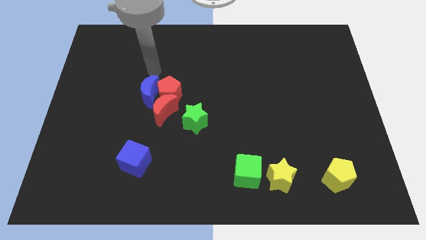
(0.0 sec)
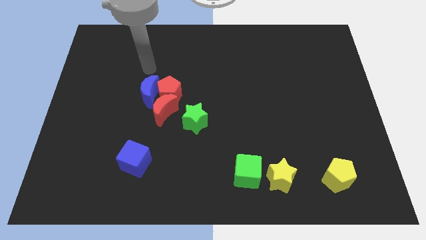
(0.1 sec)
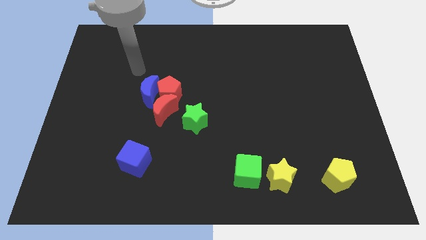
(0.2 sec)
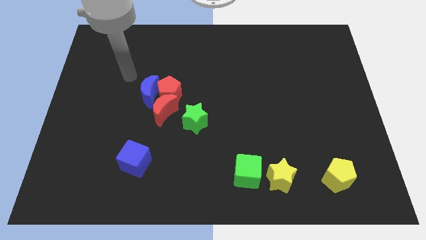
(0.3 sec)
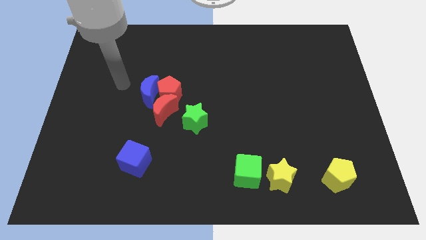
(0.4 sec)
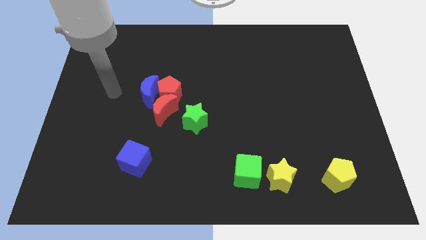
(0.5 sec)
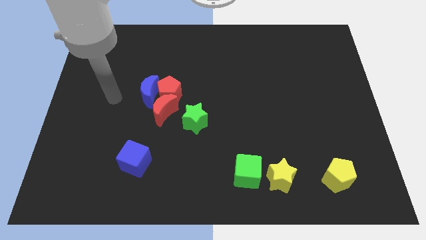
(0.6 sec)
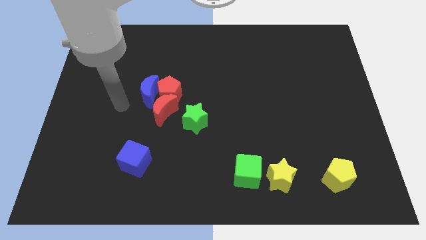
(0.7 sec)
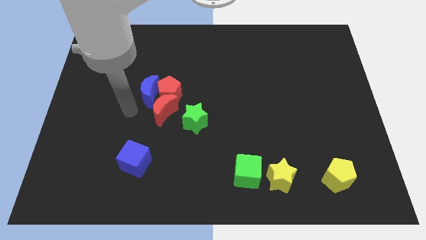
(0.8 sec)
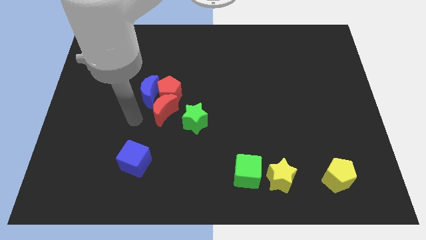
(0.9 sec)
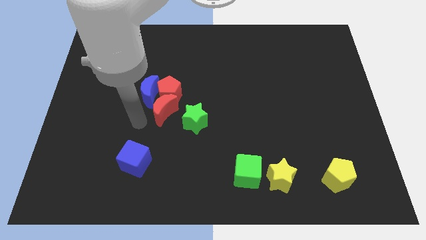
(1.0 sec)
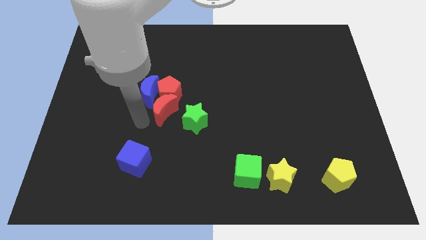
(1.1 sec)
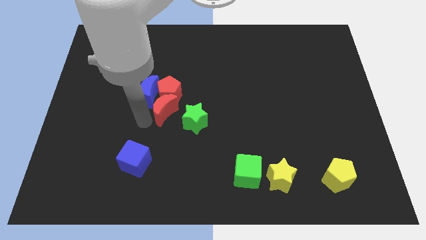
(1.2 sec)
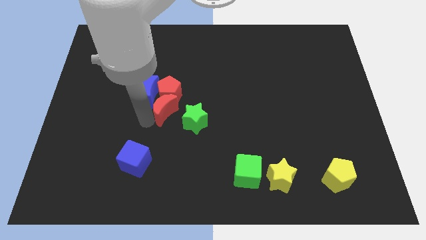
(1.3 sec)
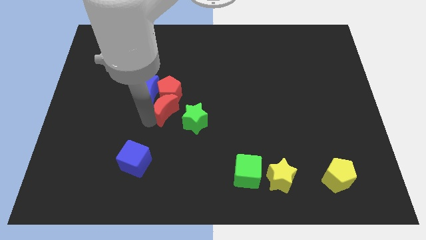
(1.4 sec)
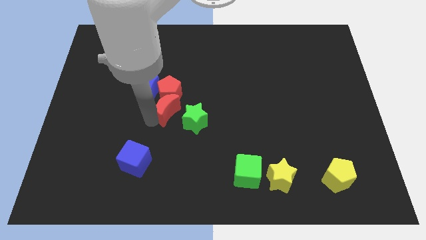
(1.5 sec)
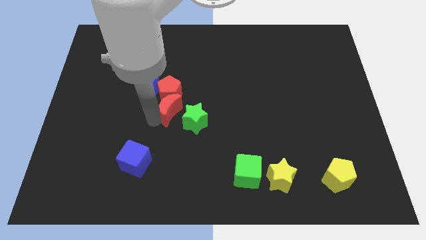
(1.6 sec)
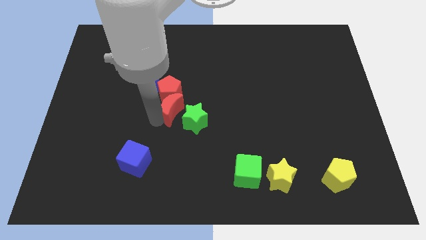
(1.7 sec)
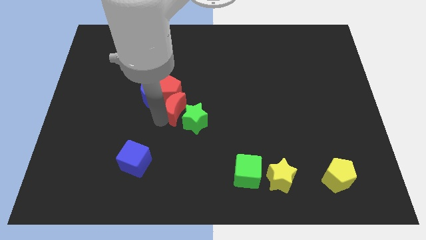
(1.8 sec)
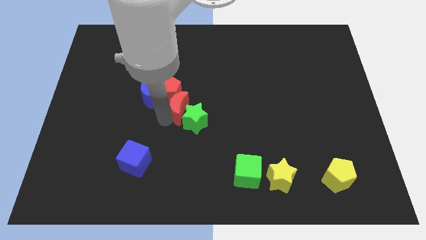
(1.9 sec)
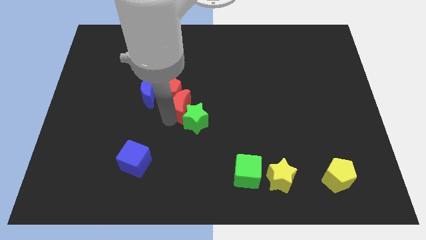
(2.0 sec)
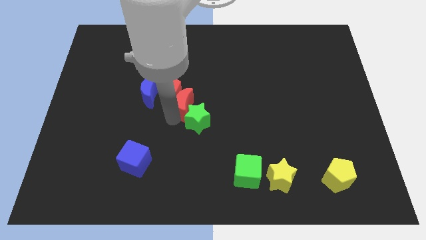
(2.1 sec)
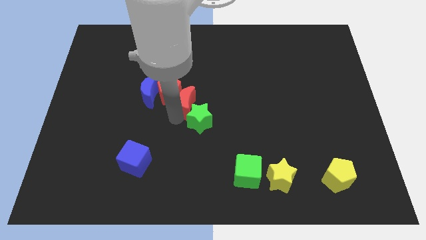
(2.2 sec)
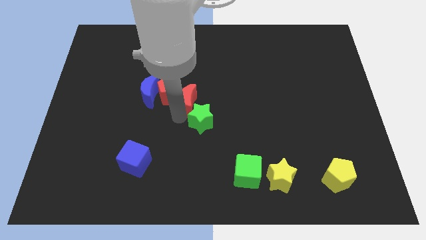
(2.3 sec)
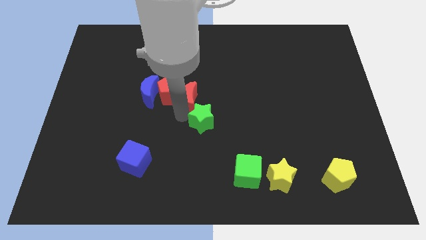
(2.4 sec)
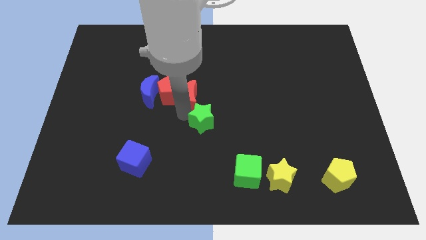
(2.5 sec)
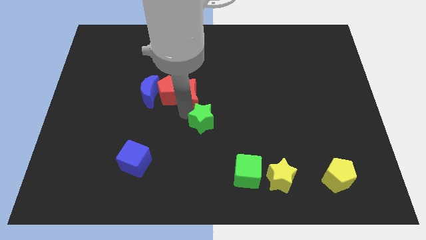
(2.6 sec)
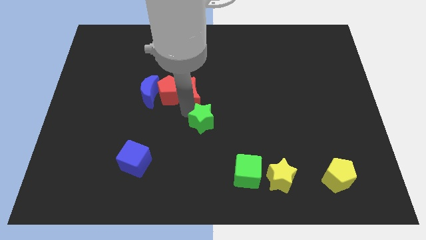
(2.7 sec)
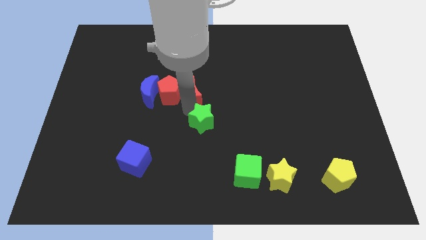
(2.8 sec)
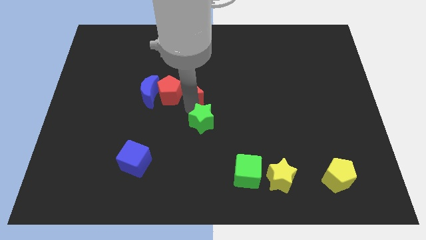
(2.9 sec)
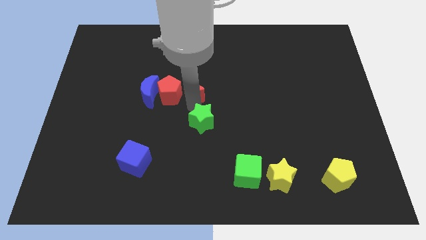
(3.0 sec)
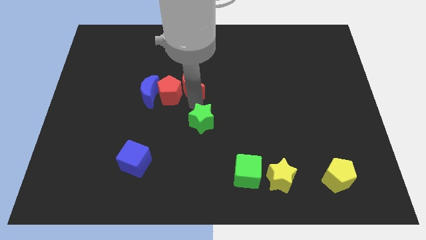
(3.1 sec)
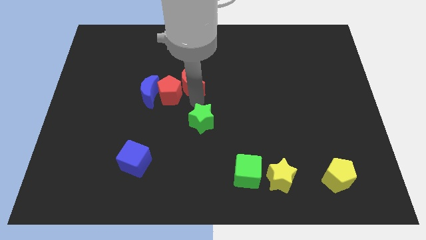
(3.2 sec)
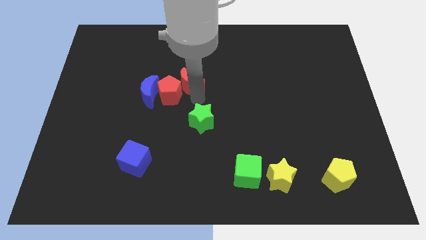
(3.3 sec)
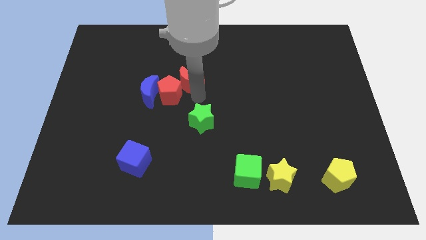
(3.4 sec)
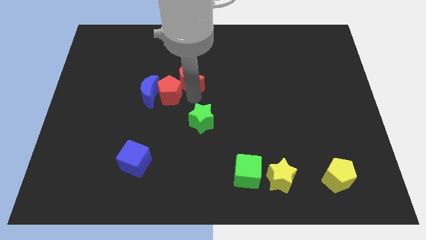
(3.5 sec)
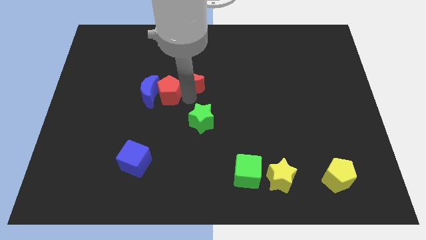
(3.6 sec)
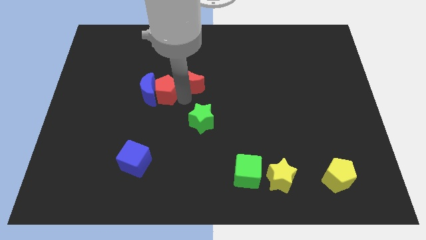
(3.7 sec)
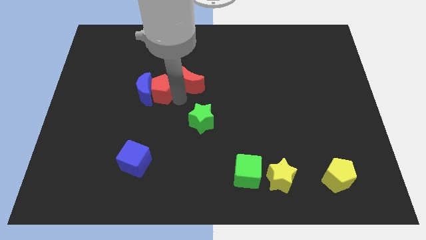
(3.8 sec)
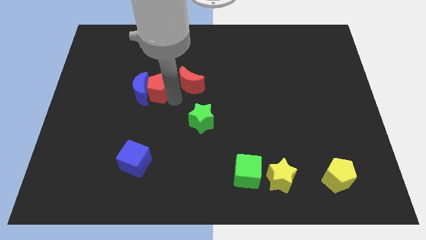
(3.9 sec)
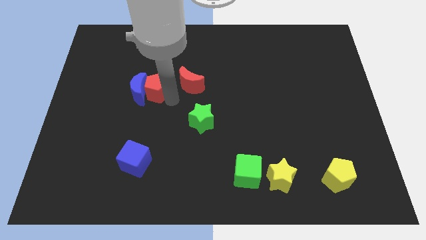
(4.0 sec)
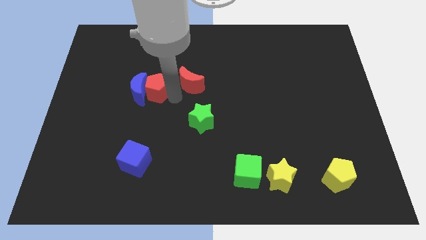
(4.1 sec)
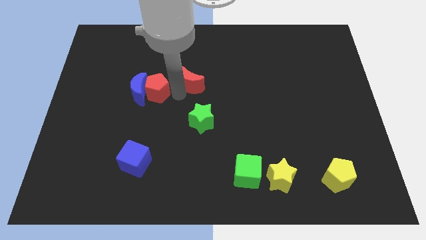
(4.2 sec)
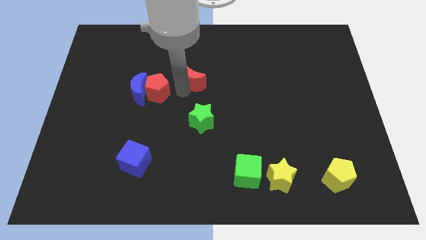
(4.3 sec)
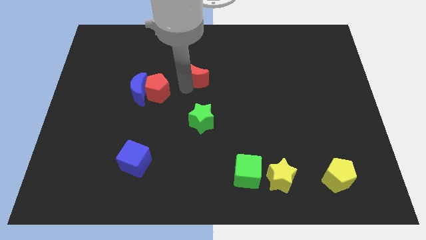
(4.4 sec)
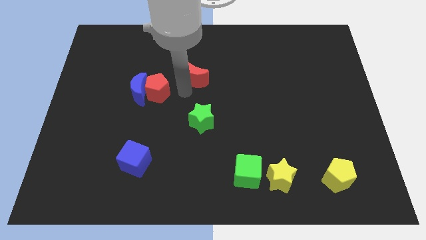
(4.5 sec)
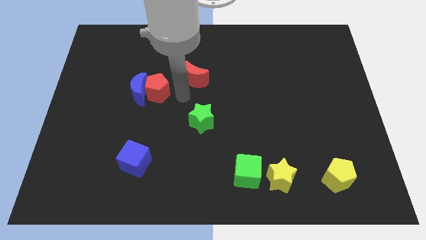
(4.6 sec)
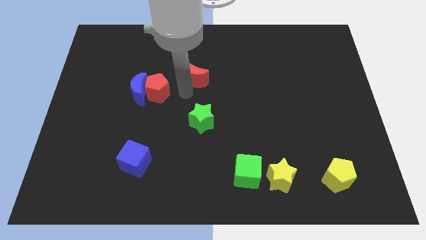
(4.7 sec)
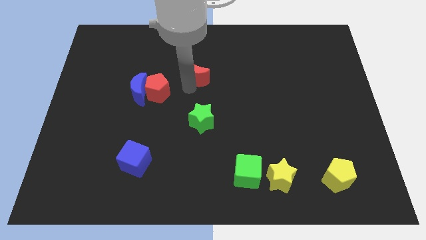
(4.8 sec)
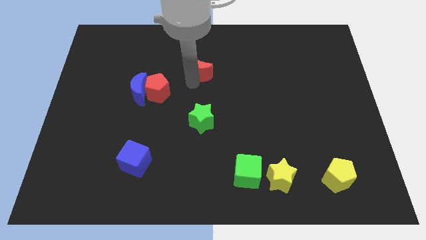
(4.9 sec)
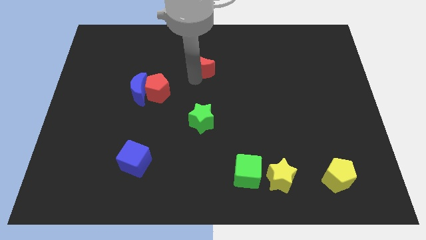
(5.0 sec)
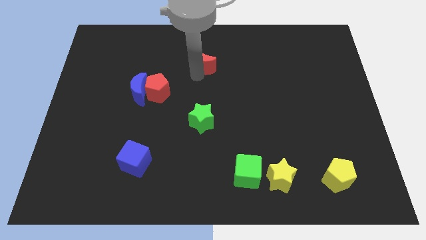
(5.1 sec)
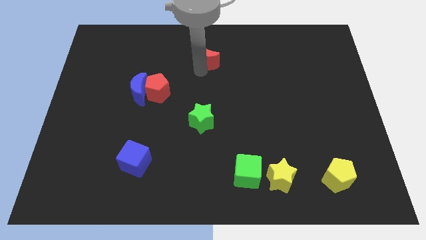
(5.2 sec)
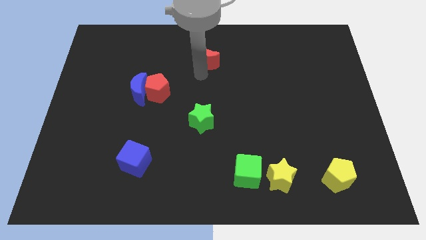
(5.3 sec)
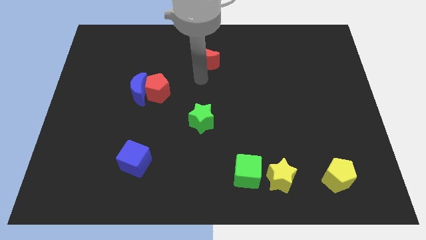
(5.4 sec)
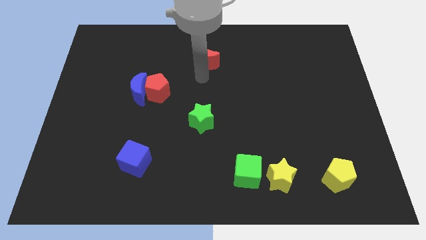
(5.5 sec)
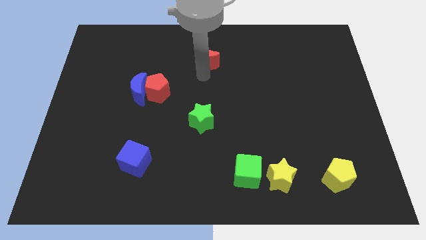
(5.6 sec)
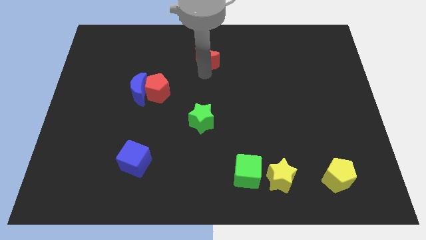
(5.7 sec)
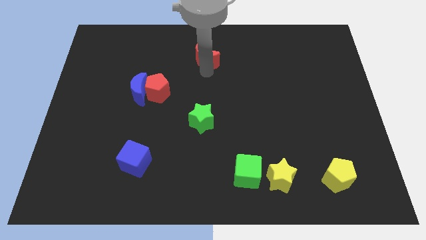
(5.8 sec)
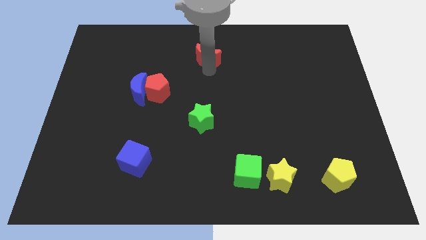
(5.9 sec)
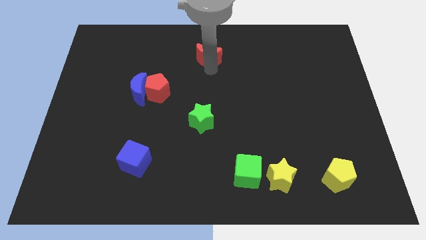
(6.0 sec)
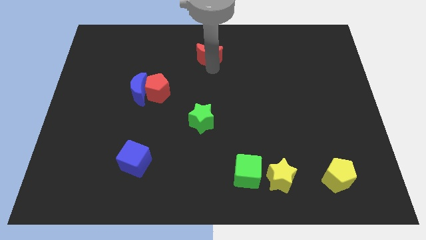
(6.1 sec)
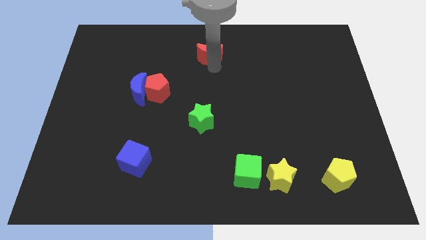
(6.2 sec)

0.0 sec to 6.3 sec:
slide the red moon to the towards your base

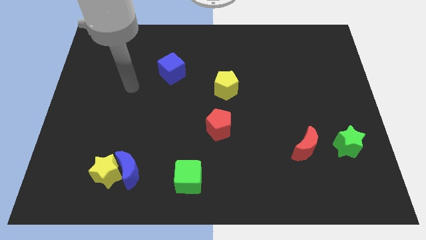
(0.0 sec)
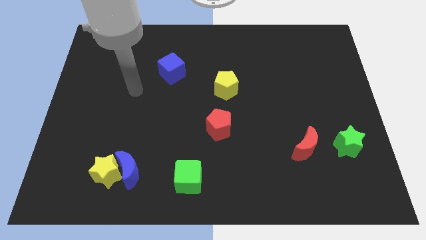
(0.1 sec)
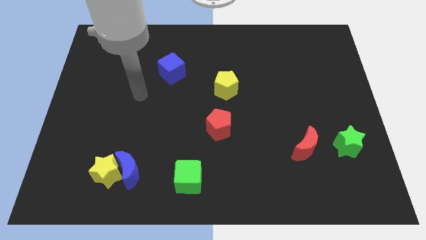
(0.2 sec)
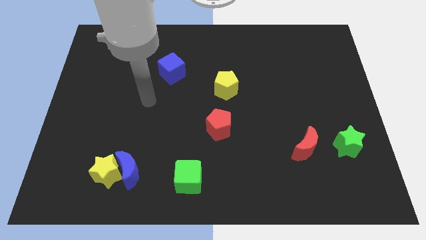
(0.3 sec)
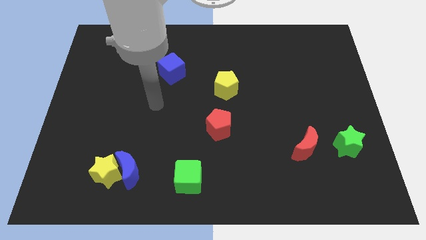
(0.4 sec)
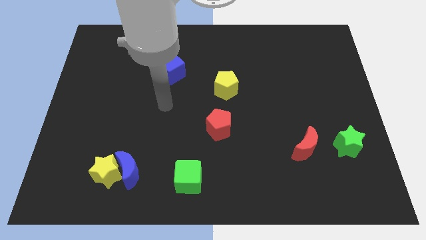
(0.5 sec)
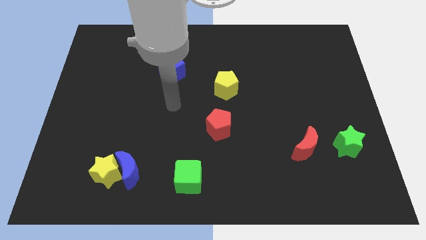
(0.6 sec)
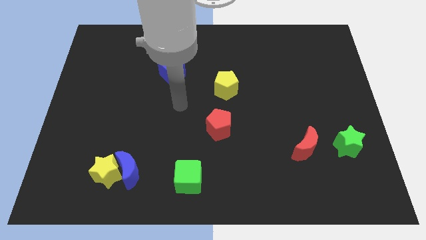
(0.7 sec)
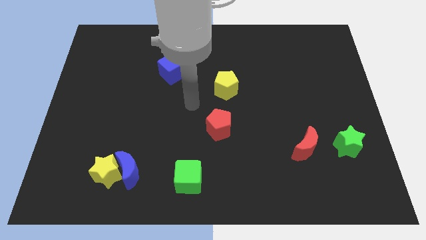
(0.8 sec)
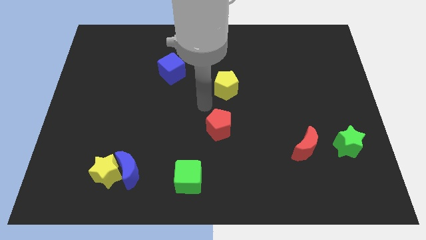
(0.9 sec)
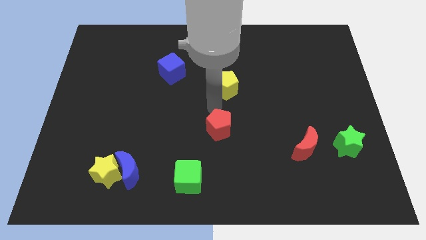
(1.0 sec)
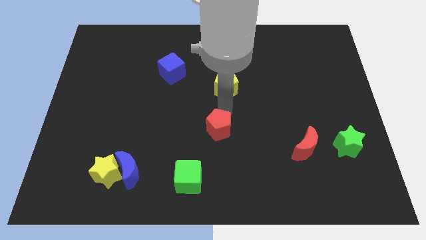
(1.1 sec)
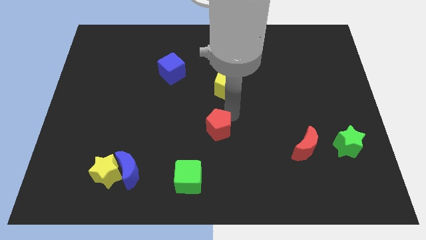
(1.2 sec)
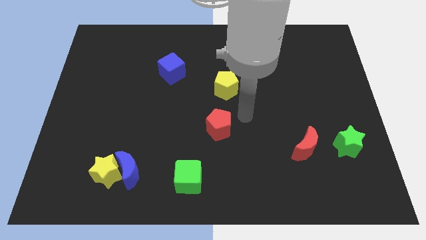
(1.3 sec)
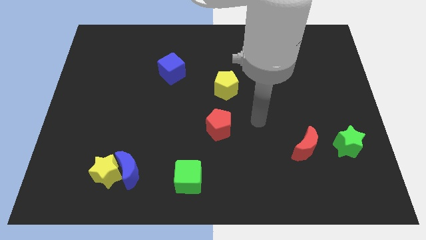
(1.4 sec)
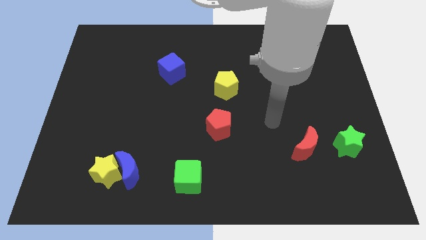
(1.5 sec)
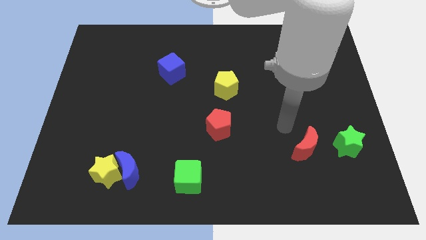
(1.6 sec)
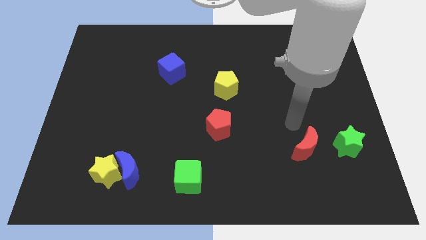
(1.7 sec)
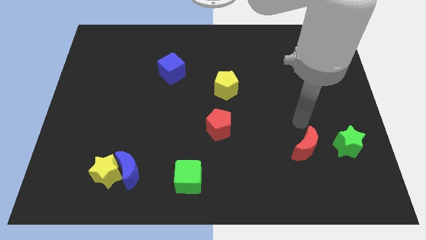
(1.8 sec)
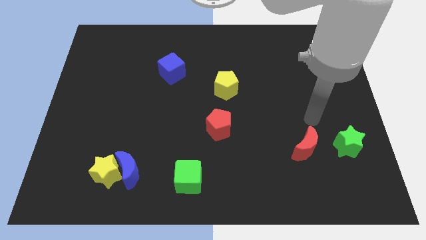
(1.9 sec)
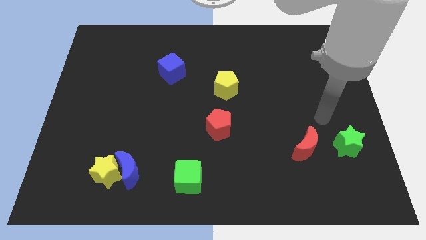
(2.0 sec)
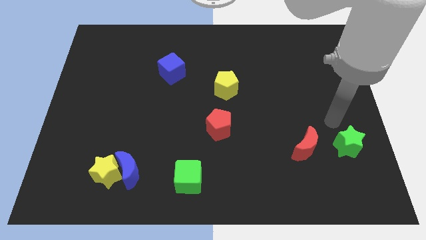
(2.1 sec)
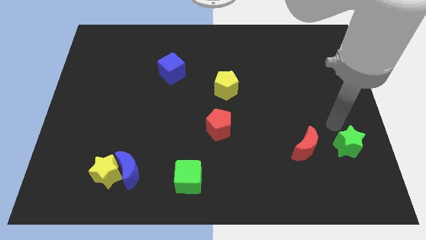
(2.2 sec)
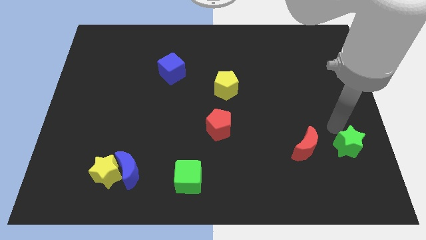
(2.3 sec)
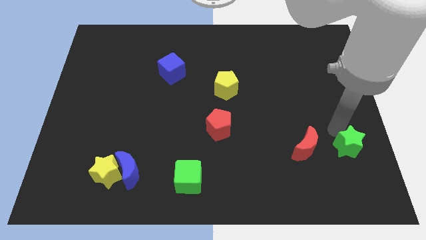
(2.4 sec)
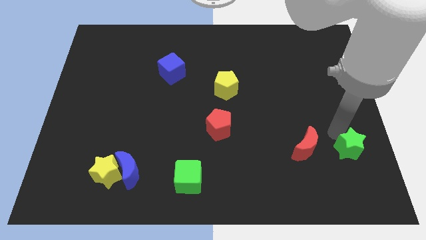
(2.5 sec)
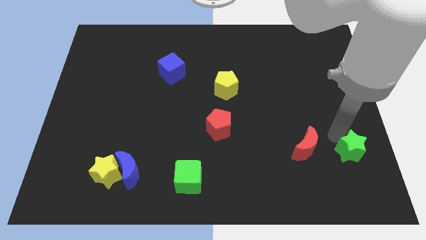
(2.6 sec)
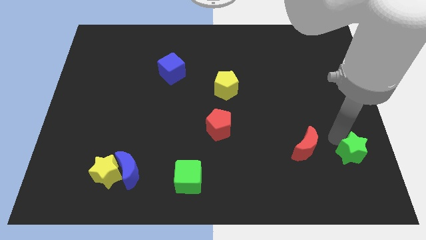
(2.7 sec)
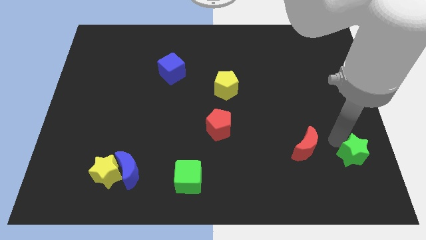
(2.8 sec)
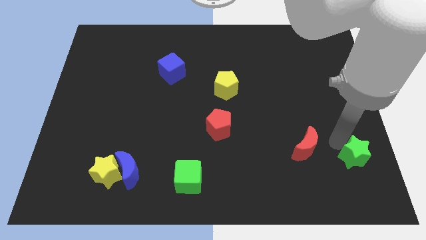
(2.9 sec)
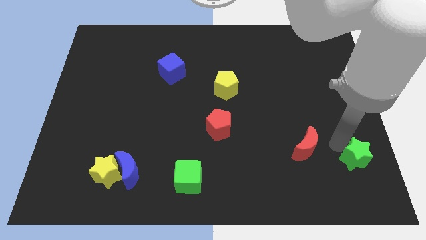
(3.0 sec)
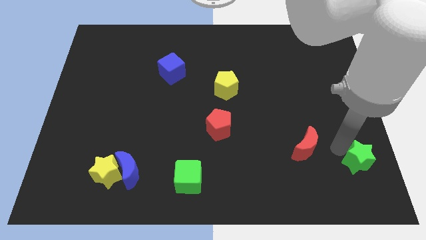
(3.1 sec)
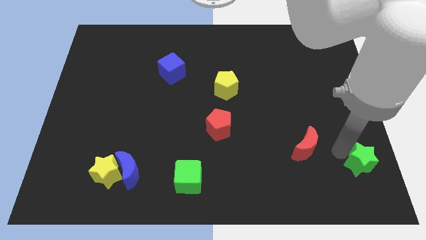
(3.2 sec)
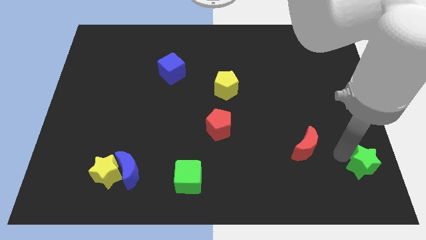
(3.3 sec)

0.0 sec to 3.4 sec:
push the green star to the bottom right corner
